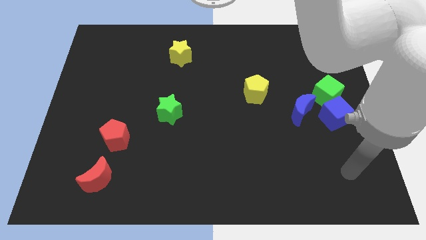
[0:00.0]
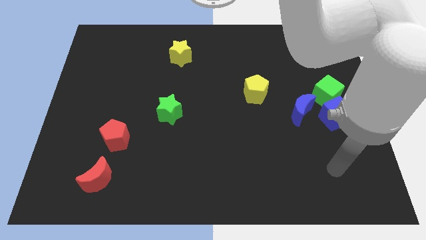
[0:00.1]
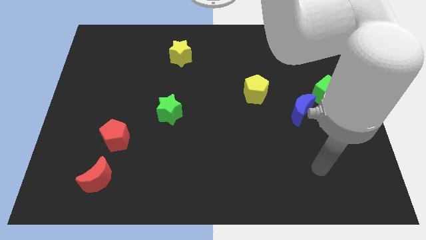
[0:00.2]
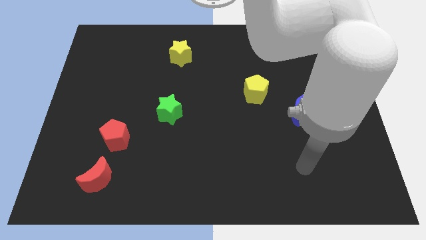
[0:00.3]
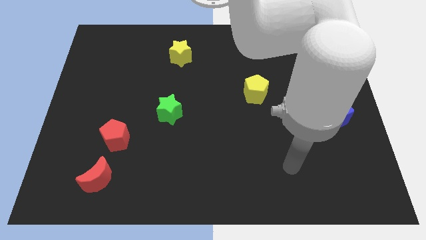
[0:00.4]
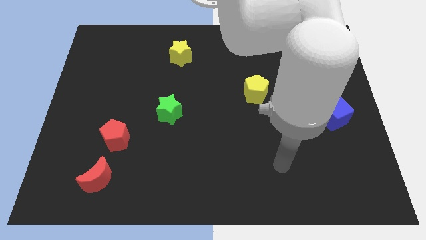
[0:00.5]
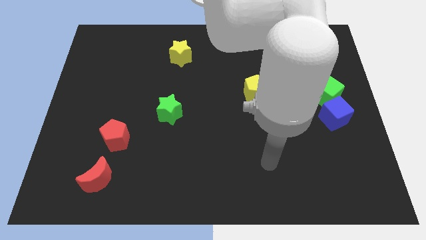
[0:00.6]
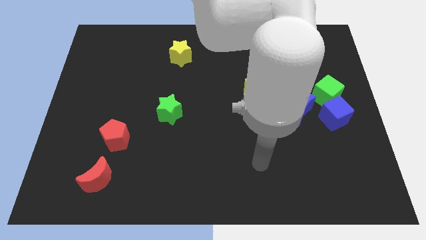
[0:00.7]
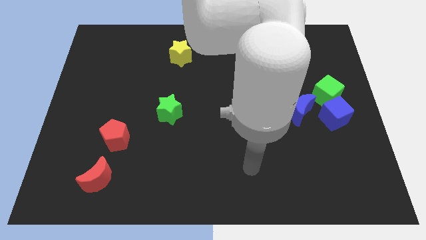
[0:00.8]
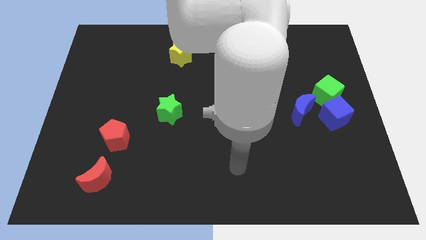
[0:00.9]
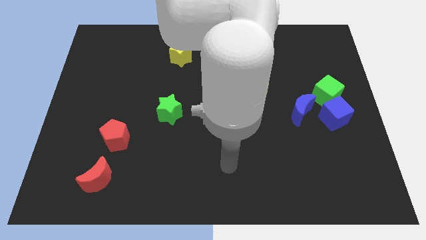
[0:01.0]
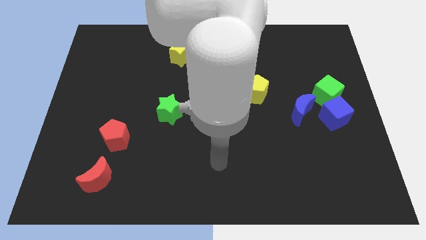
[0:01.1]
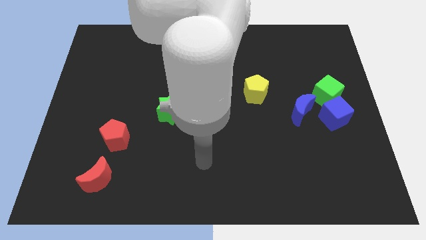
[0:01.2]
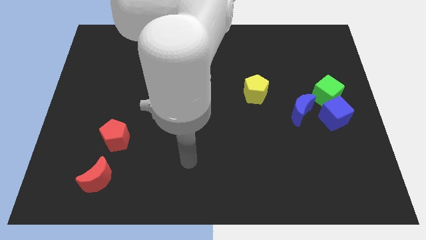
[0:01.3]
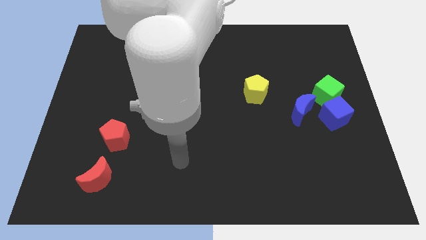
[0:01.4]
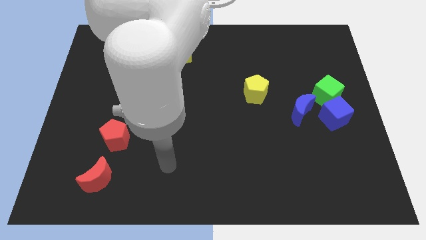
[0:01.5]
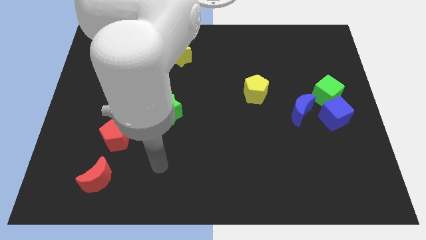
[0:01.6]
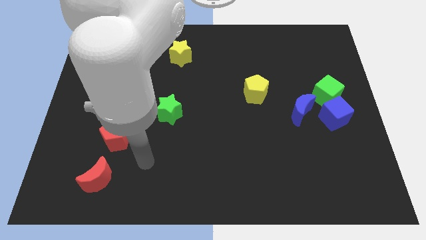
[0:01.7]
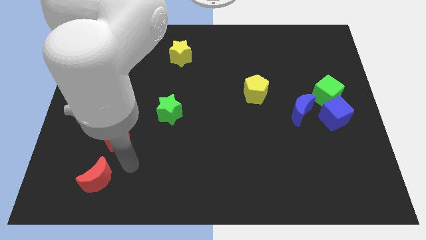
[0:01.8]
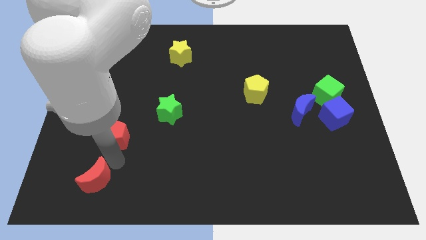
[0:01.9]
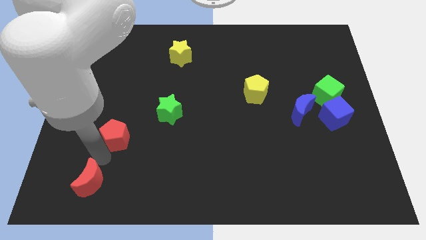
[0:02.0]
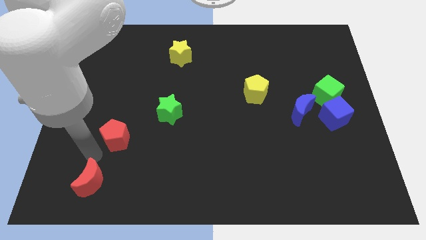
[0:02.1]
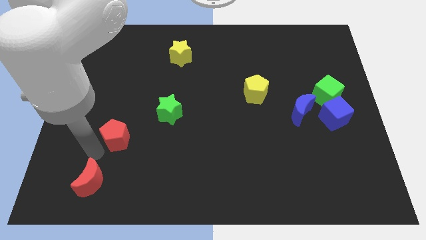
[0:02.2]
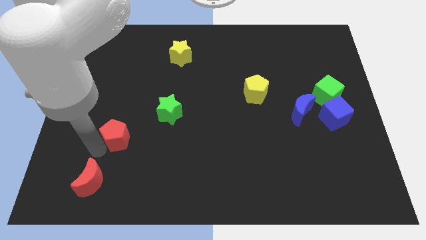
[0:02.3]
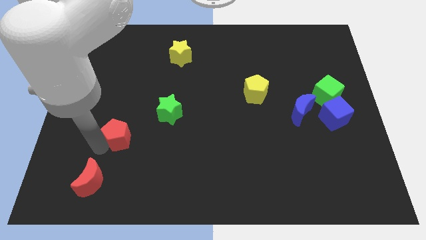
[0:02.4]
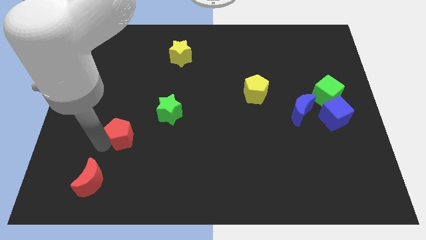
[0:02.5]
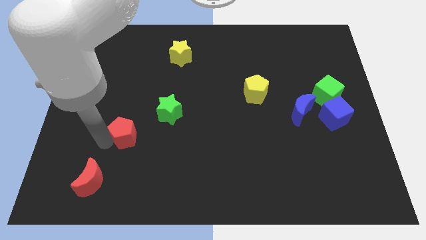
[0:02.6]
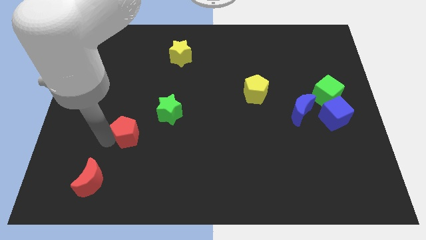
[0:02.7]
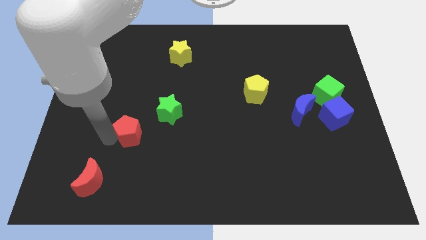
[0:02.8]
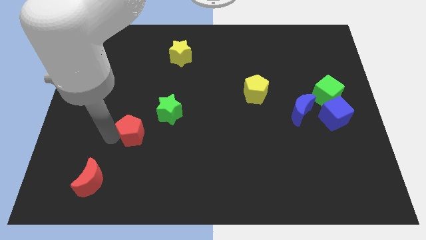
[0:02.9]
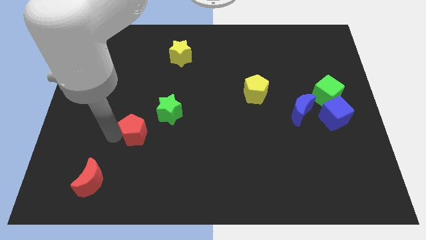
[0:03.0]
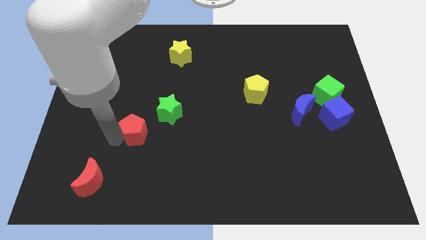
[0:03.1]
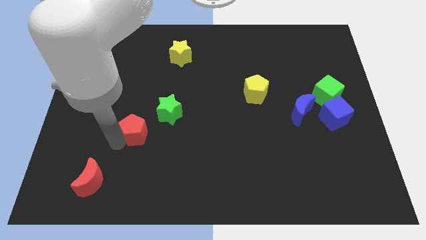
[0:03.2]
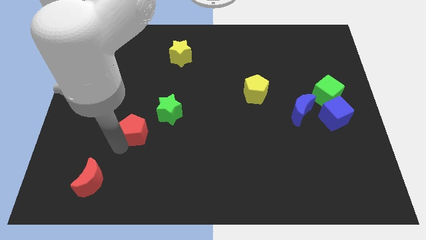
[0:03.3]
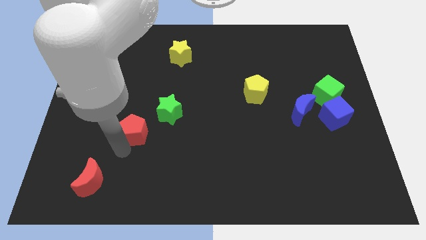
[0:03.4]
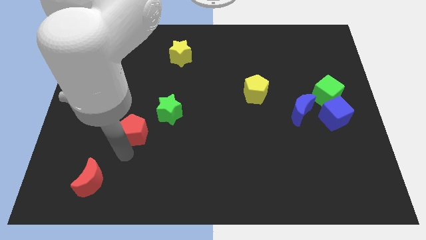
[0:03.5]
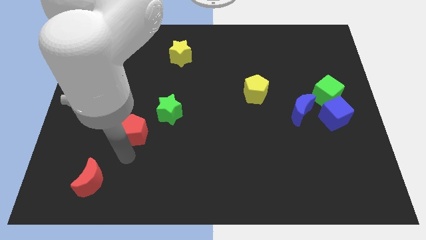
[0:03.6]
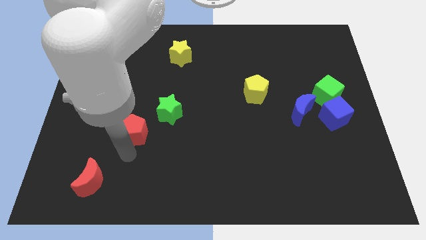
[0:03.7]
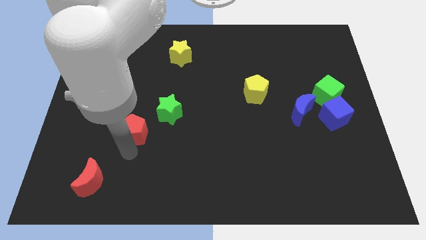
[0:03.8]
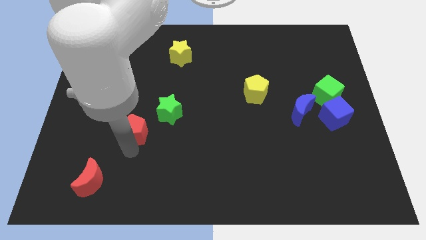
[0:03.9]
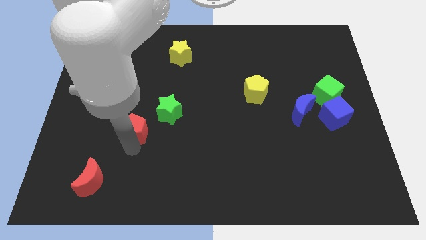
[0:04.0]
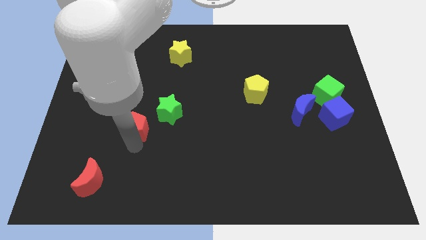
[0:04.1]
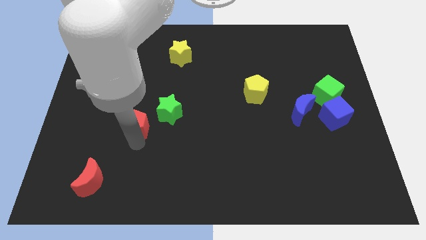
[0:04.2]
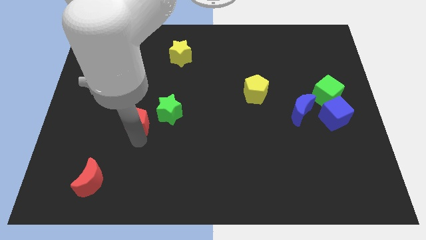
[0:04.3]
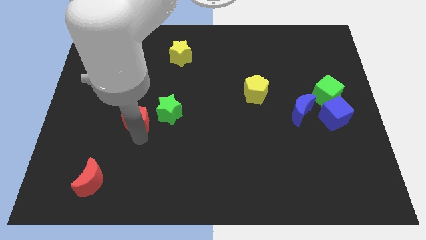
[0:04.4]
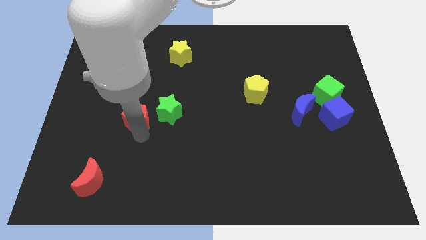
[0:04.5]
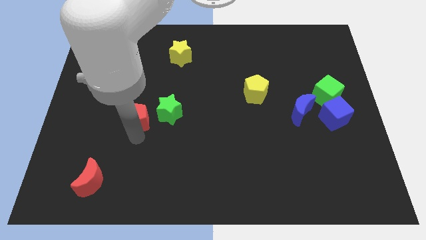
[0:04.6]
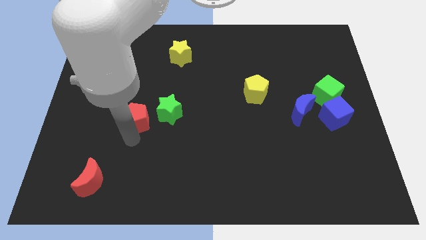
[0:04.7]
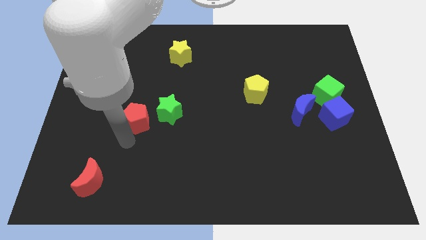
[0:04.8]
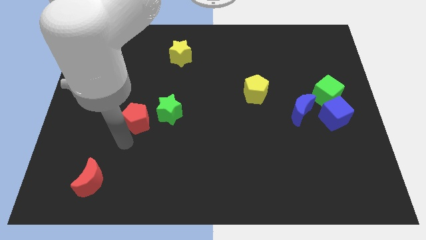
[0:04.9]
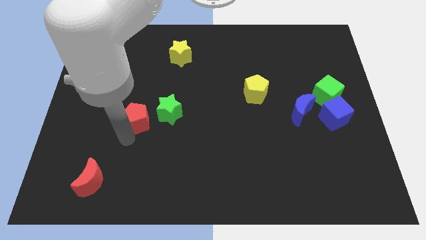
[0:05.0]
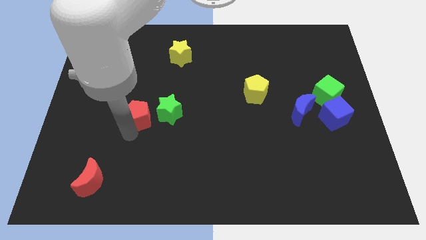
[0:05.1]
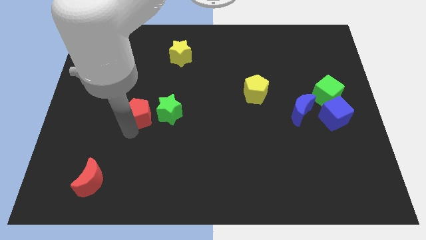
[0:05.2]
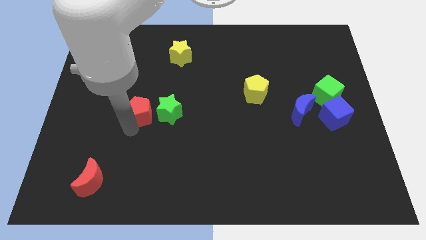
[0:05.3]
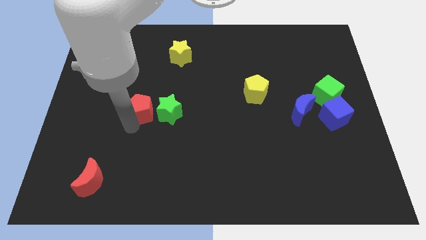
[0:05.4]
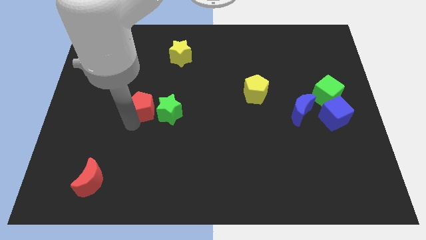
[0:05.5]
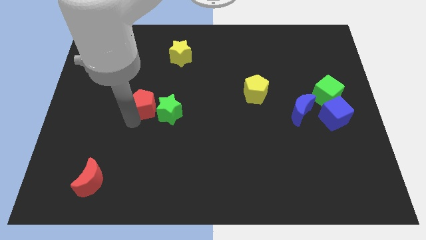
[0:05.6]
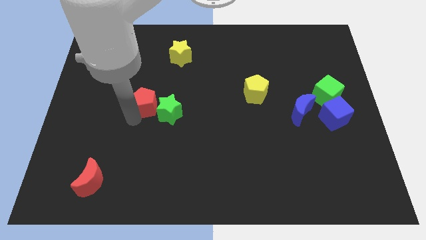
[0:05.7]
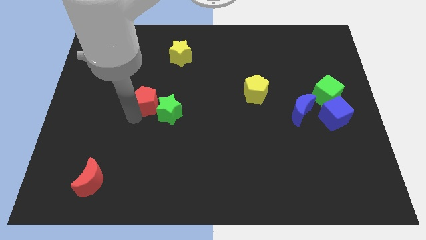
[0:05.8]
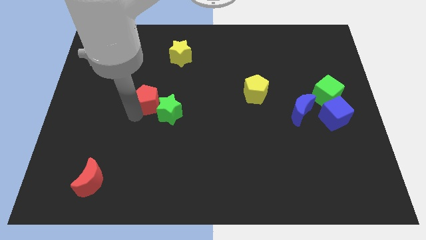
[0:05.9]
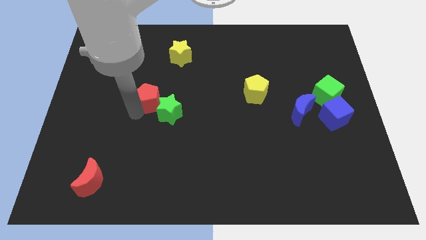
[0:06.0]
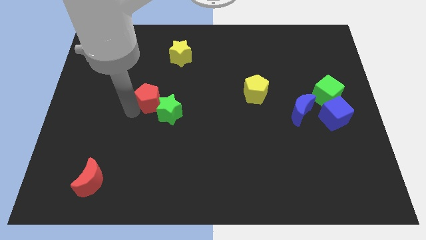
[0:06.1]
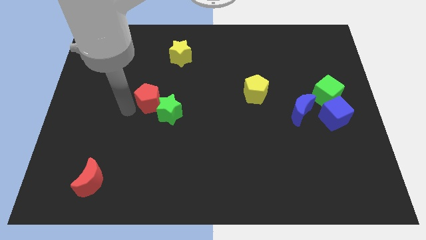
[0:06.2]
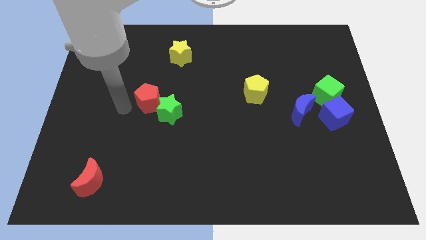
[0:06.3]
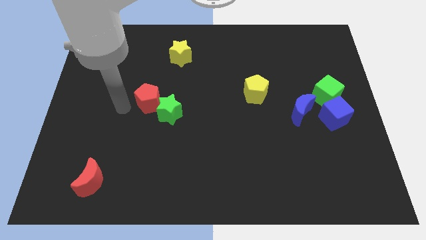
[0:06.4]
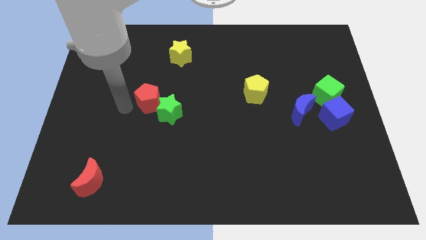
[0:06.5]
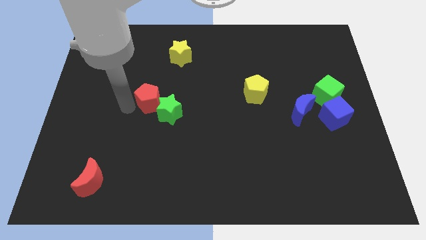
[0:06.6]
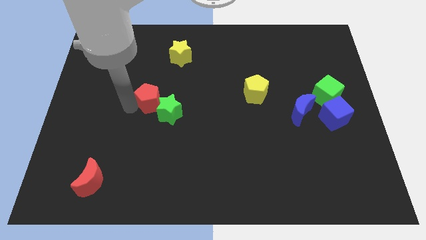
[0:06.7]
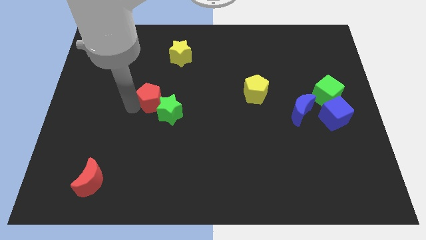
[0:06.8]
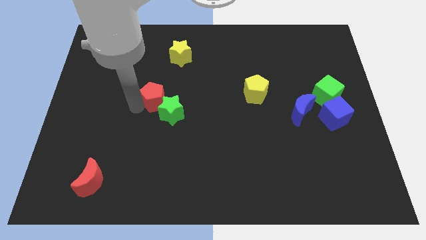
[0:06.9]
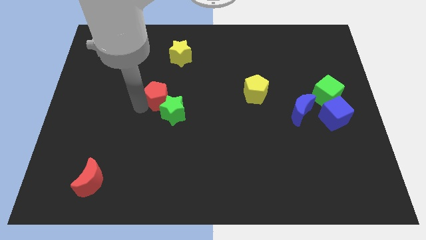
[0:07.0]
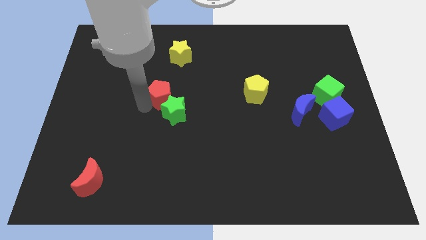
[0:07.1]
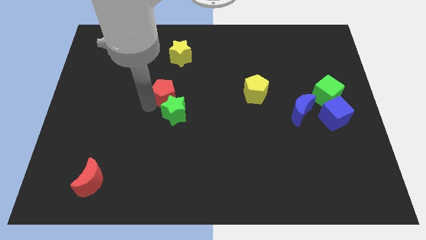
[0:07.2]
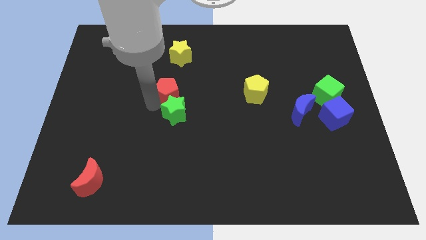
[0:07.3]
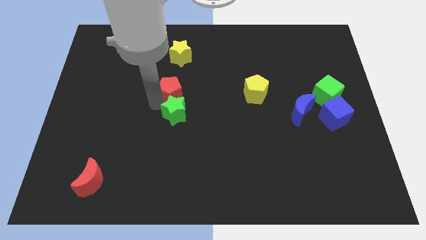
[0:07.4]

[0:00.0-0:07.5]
push the red pentagon diagonally up and to the right of the green star
